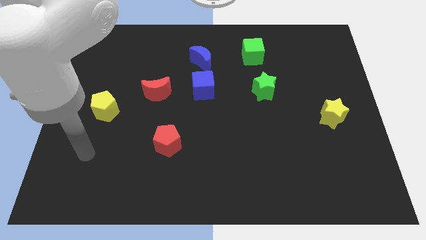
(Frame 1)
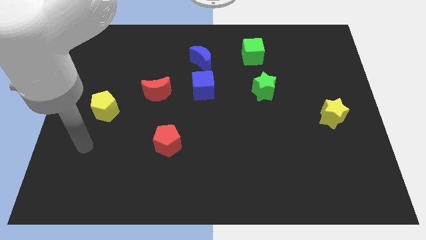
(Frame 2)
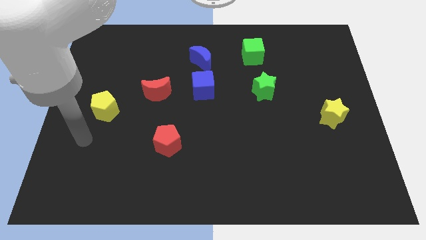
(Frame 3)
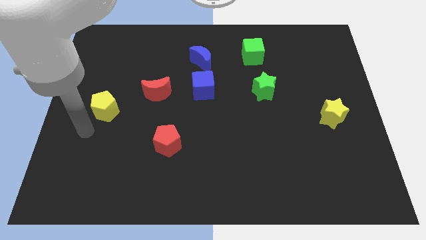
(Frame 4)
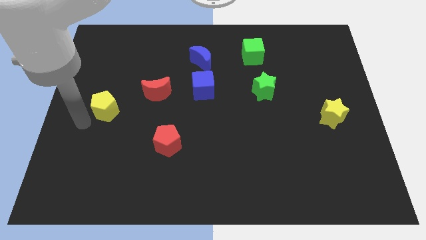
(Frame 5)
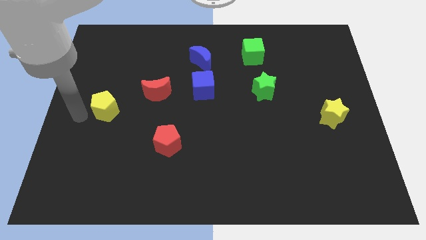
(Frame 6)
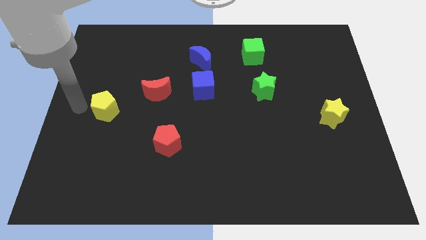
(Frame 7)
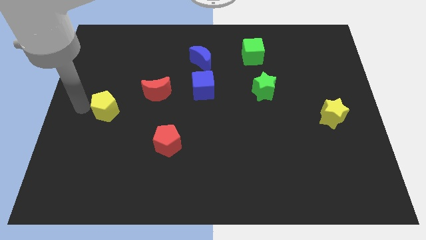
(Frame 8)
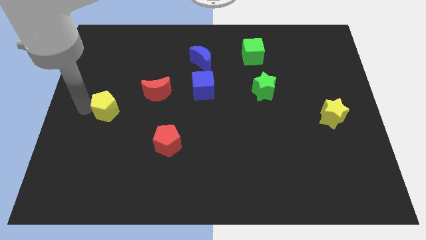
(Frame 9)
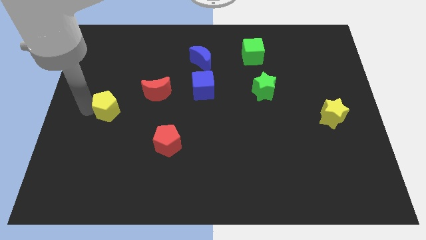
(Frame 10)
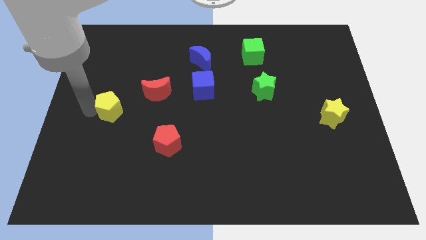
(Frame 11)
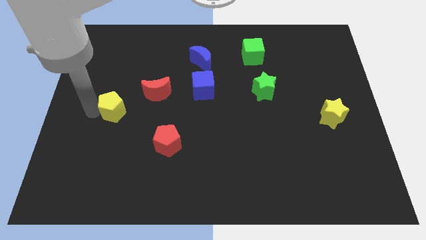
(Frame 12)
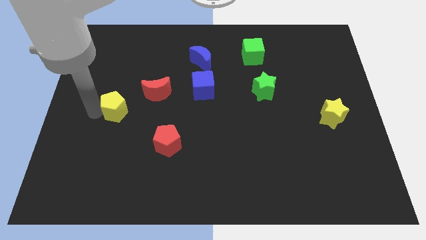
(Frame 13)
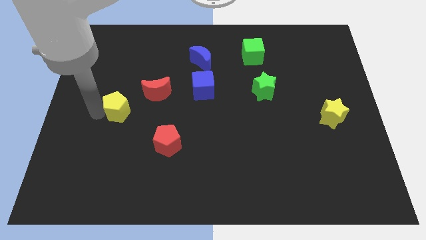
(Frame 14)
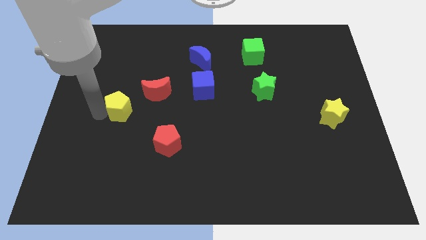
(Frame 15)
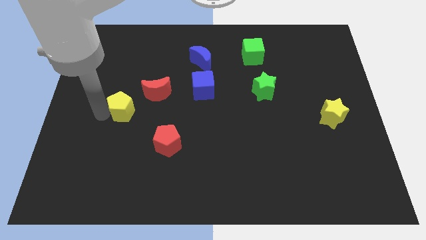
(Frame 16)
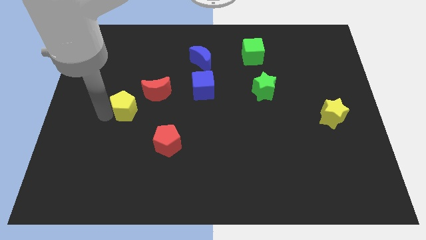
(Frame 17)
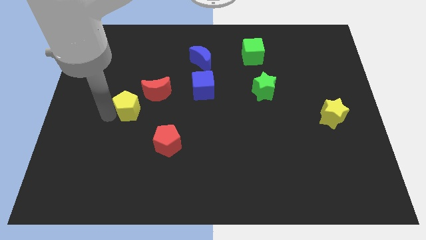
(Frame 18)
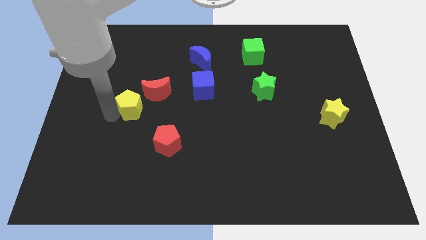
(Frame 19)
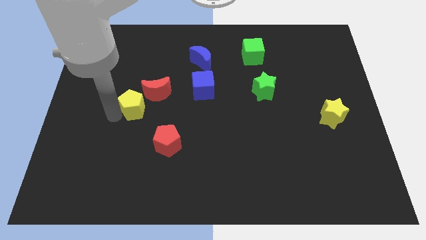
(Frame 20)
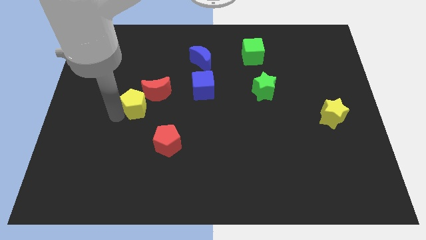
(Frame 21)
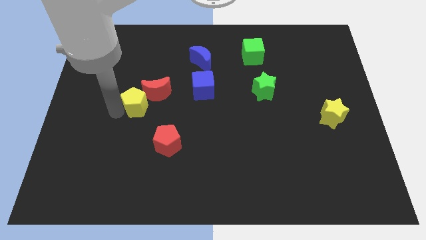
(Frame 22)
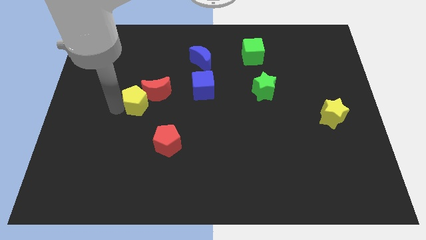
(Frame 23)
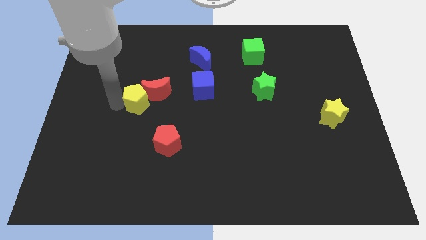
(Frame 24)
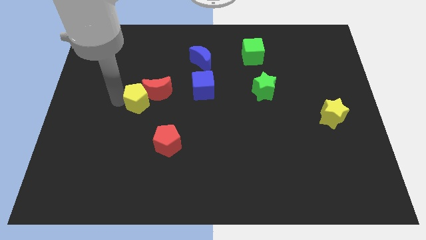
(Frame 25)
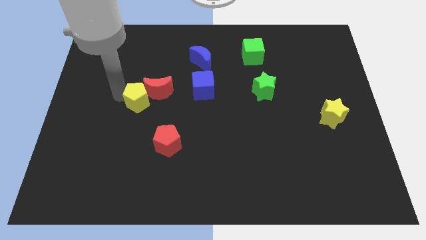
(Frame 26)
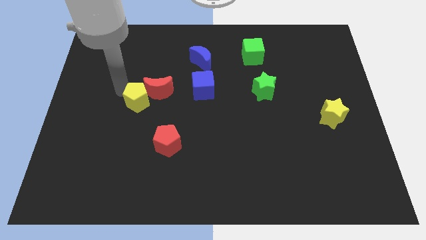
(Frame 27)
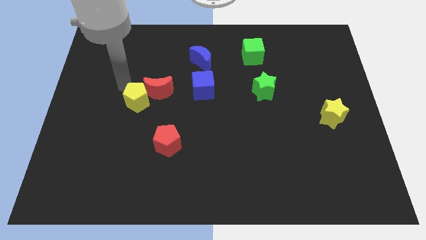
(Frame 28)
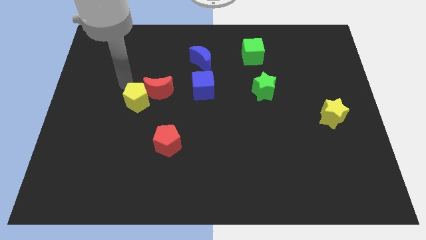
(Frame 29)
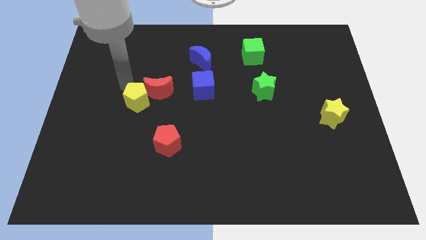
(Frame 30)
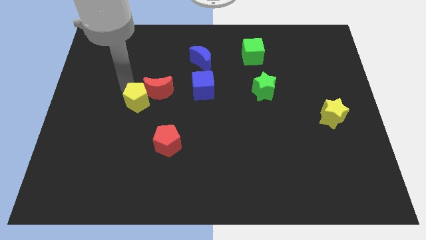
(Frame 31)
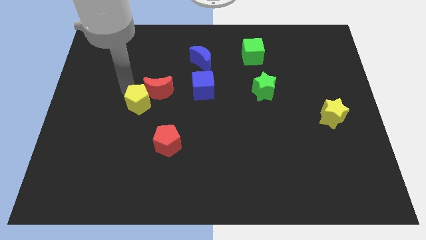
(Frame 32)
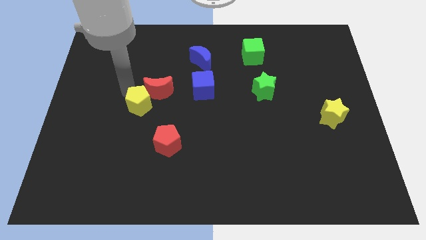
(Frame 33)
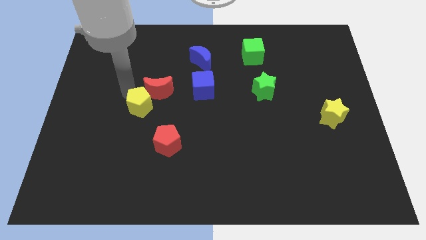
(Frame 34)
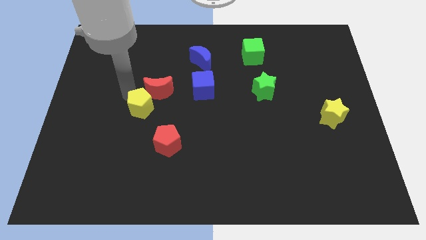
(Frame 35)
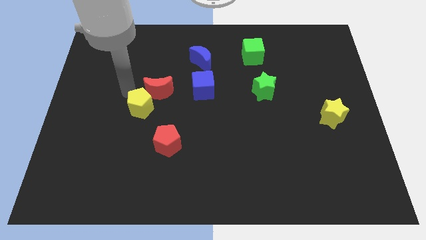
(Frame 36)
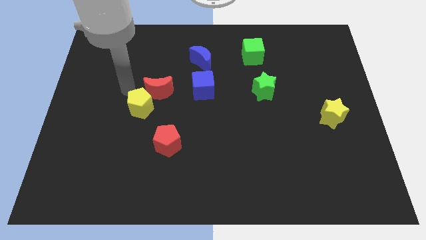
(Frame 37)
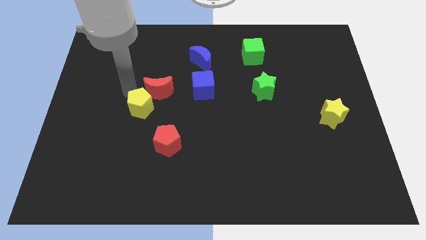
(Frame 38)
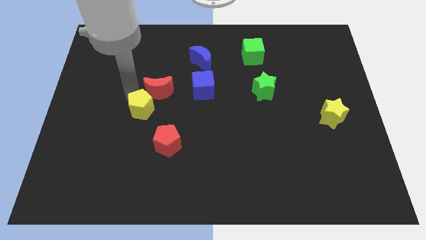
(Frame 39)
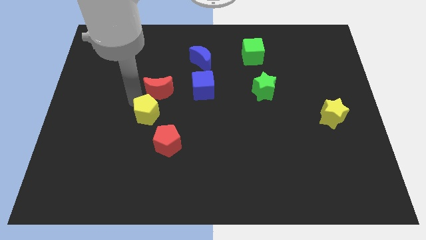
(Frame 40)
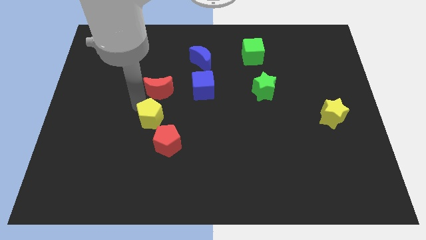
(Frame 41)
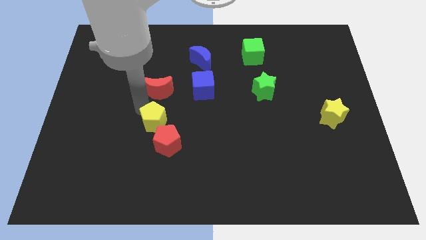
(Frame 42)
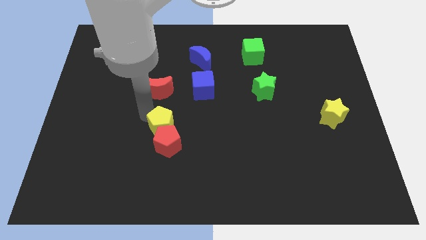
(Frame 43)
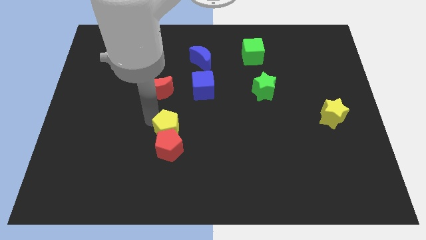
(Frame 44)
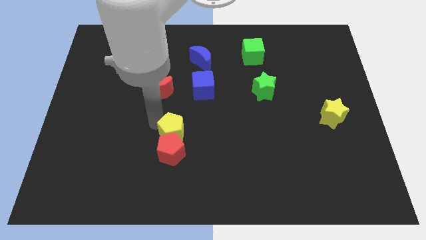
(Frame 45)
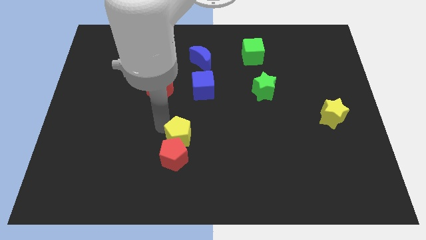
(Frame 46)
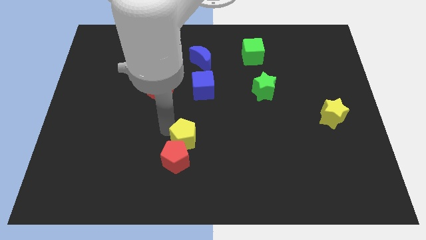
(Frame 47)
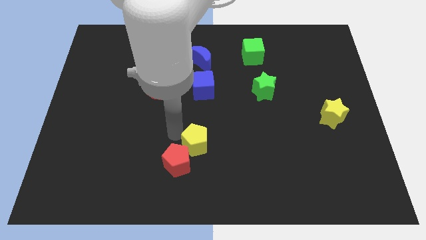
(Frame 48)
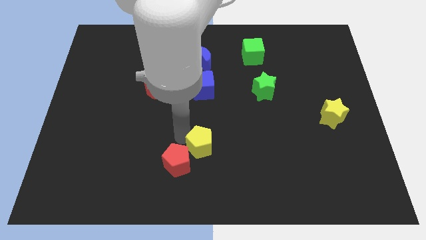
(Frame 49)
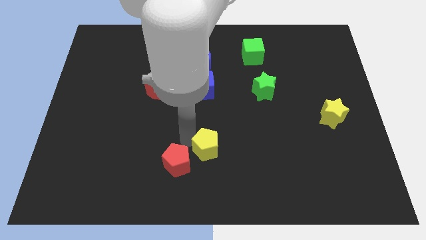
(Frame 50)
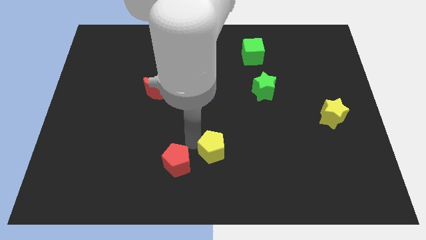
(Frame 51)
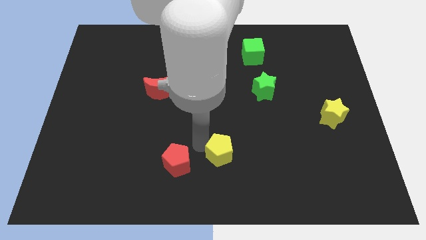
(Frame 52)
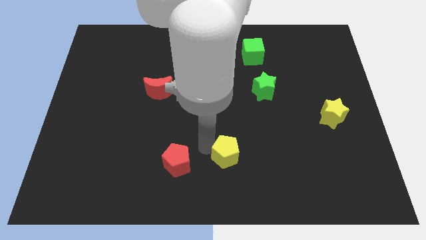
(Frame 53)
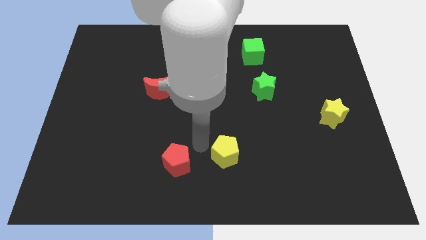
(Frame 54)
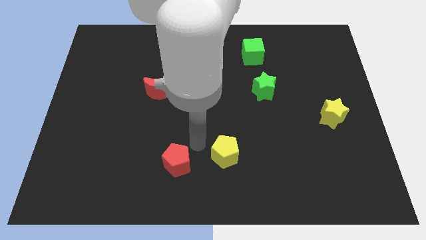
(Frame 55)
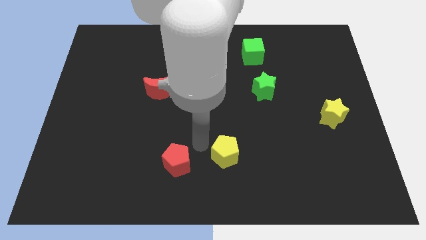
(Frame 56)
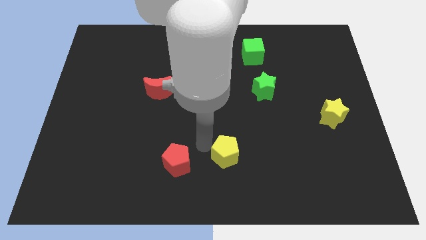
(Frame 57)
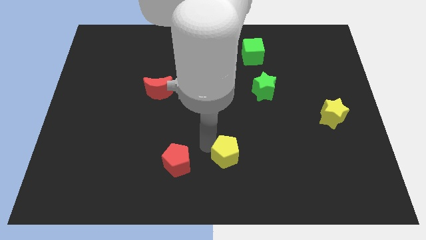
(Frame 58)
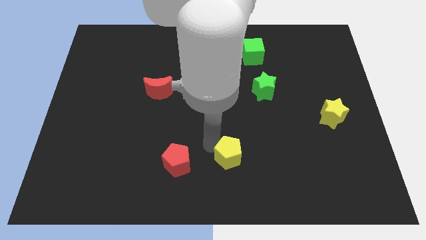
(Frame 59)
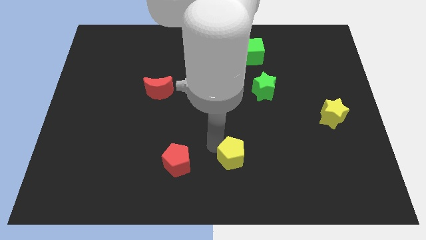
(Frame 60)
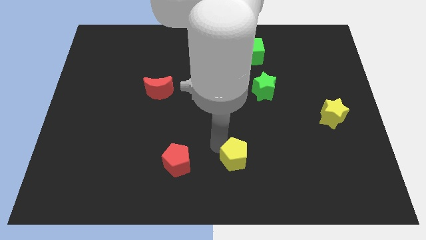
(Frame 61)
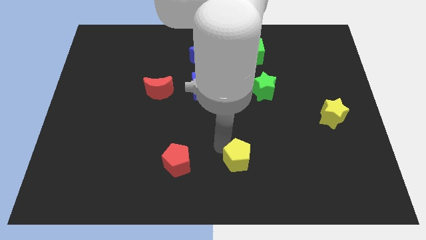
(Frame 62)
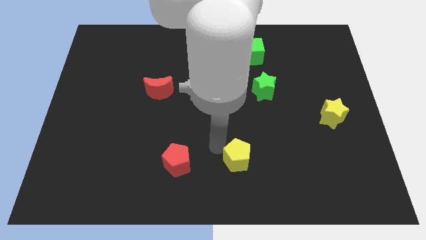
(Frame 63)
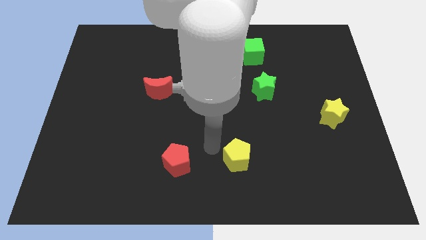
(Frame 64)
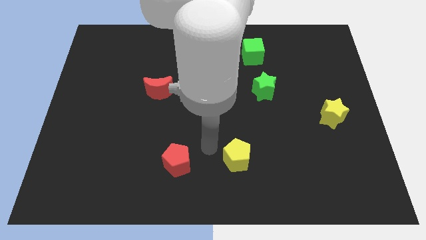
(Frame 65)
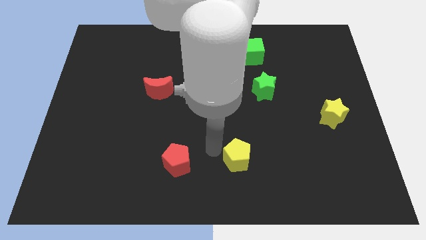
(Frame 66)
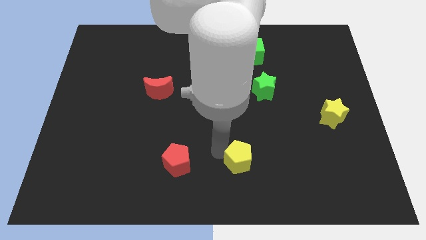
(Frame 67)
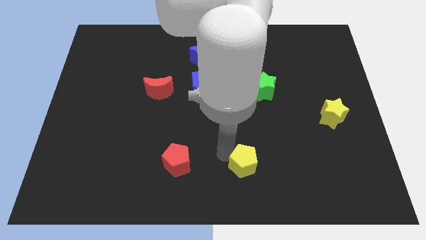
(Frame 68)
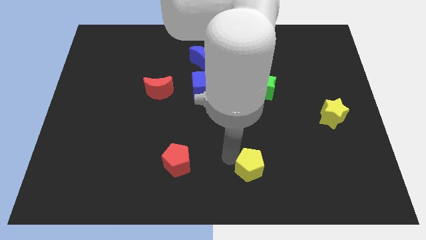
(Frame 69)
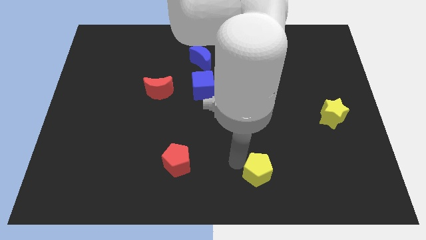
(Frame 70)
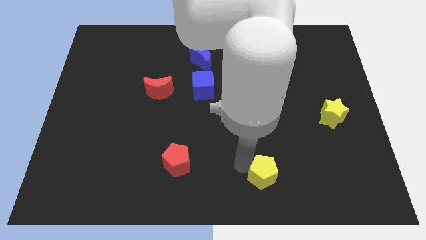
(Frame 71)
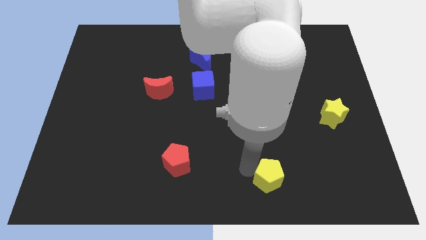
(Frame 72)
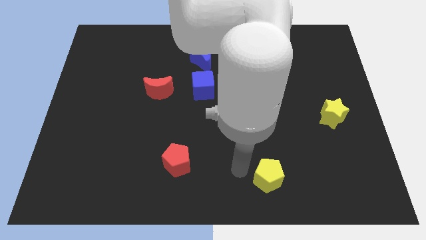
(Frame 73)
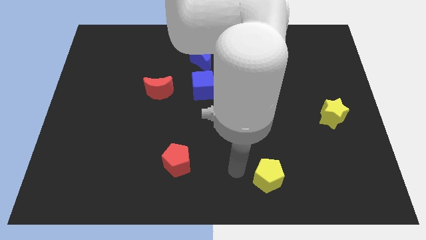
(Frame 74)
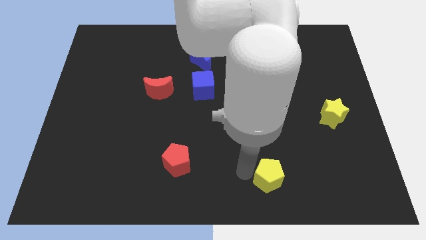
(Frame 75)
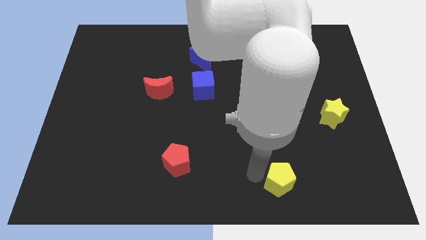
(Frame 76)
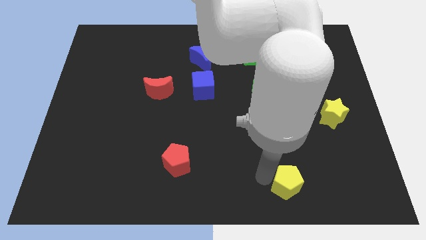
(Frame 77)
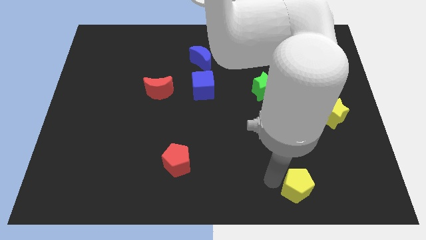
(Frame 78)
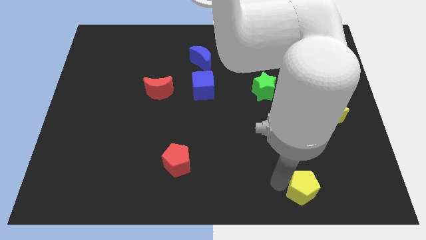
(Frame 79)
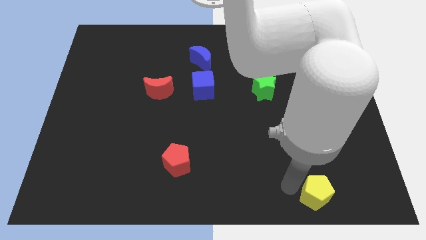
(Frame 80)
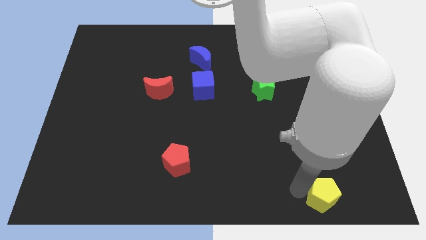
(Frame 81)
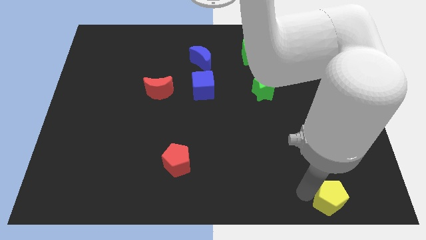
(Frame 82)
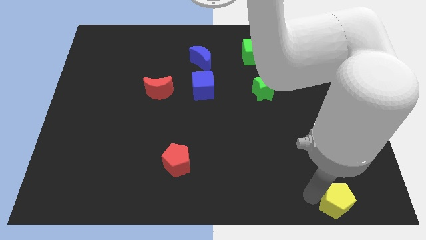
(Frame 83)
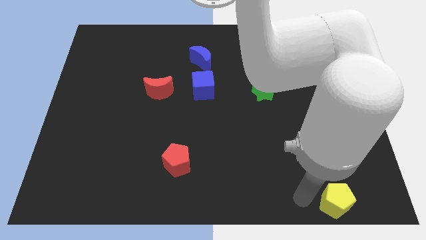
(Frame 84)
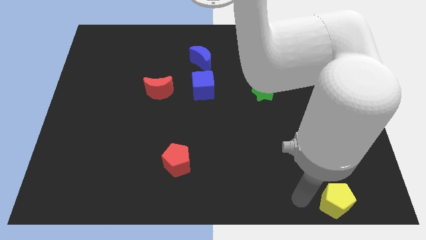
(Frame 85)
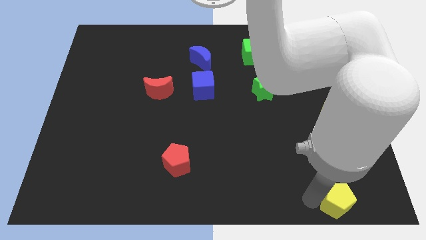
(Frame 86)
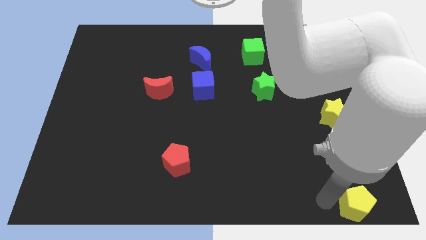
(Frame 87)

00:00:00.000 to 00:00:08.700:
slide the yellow pentagon to the bottom right corner
